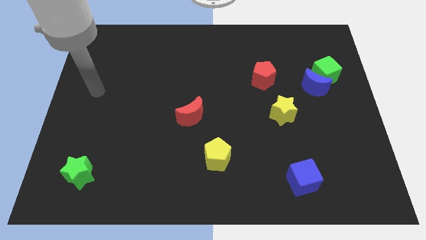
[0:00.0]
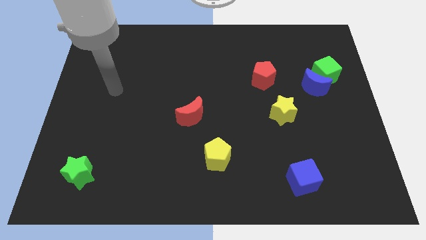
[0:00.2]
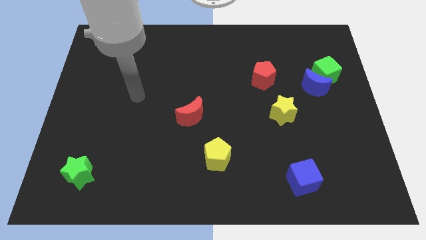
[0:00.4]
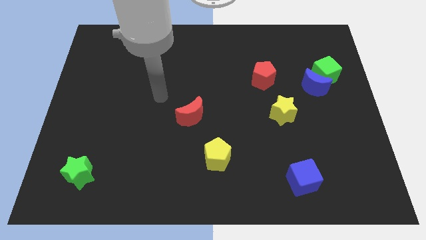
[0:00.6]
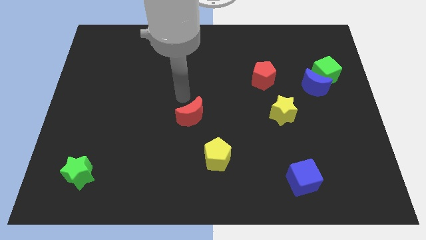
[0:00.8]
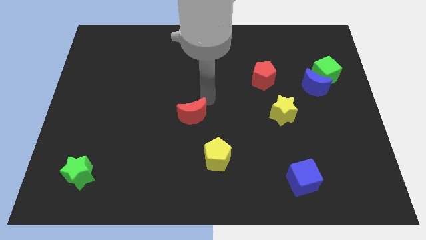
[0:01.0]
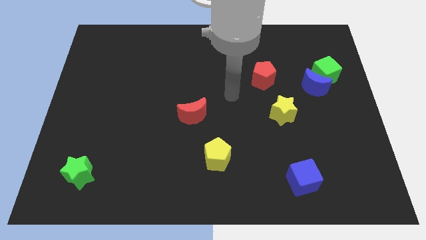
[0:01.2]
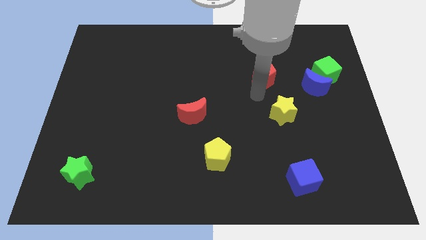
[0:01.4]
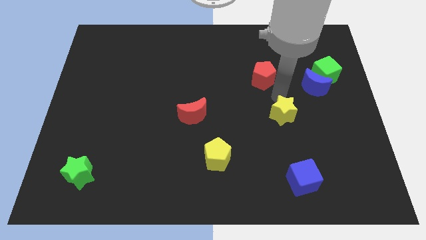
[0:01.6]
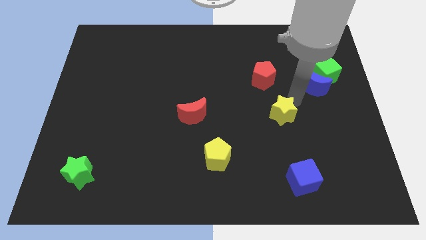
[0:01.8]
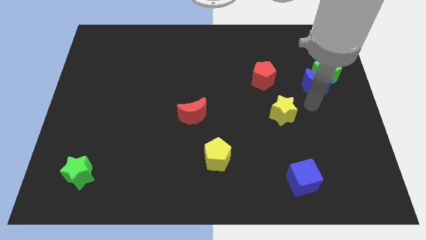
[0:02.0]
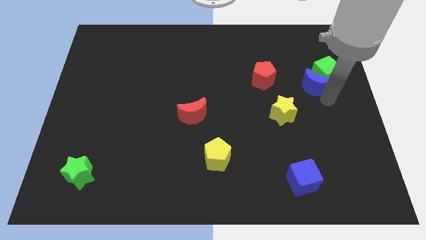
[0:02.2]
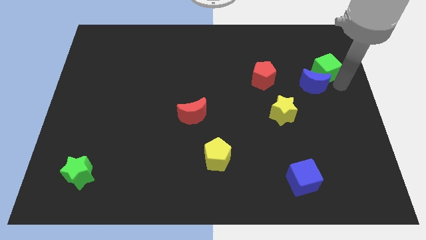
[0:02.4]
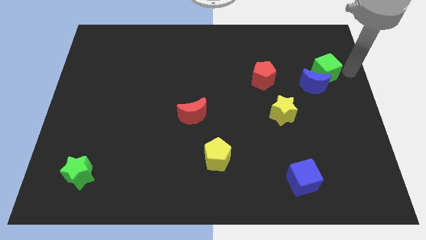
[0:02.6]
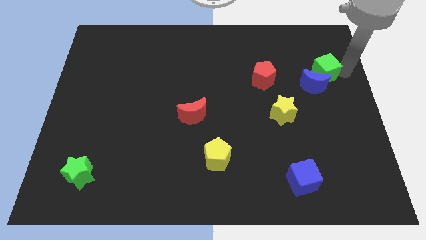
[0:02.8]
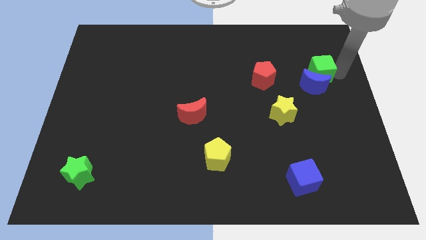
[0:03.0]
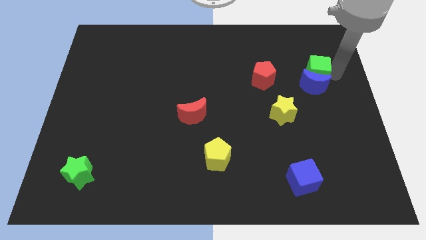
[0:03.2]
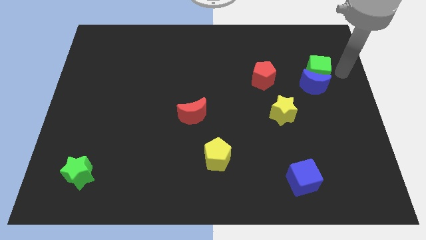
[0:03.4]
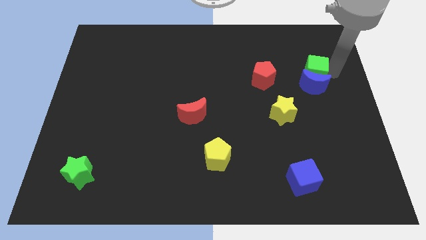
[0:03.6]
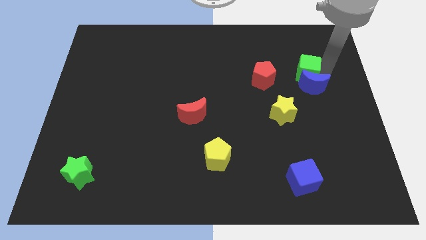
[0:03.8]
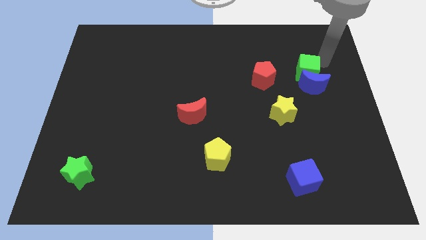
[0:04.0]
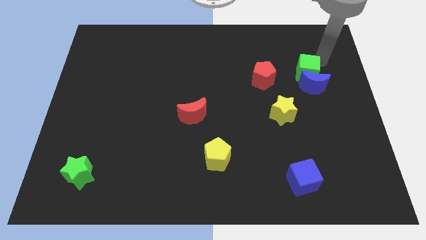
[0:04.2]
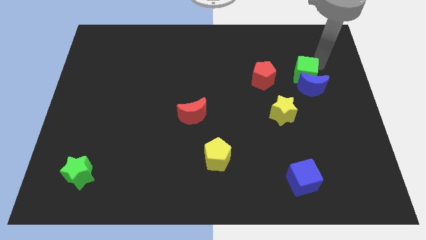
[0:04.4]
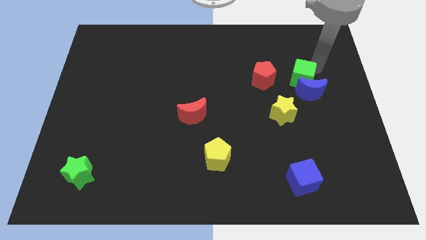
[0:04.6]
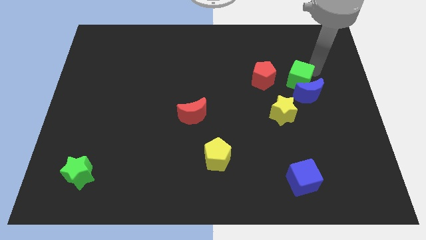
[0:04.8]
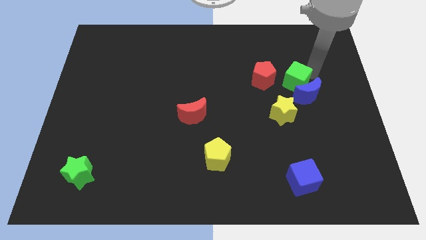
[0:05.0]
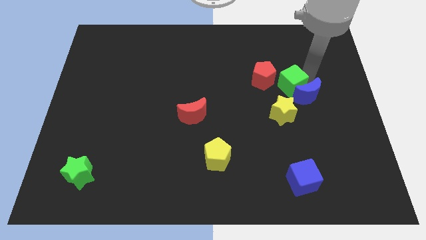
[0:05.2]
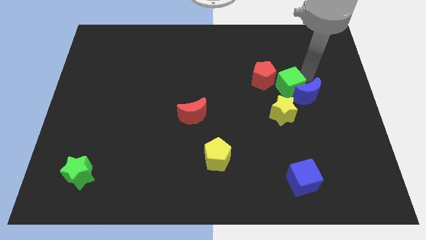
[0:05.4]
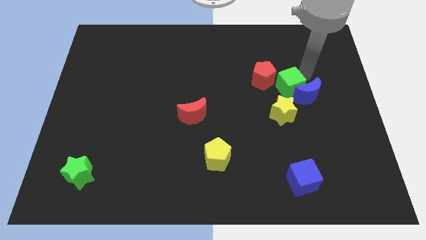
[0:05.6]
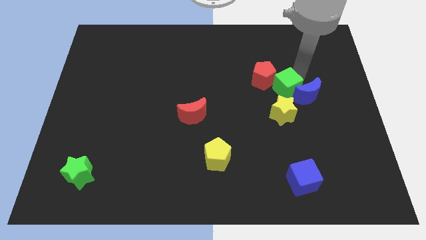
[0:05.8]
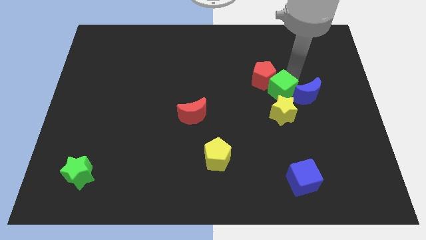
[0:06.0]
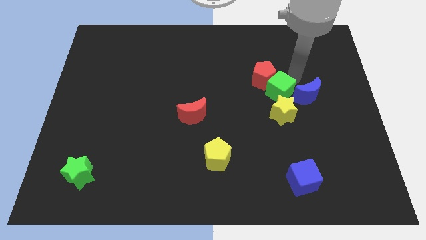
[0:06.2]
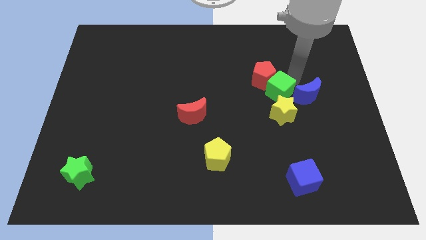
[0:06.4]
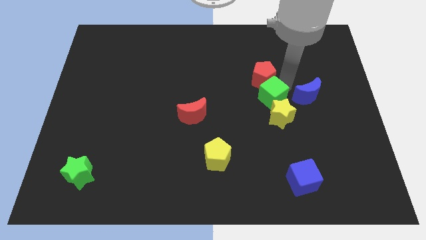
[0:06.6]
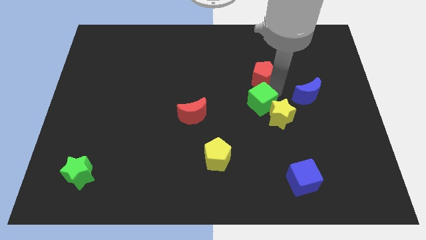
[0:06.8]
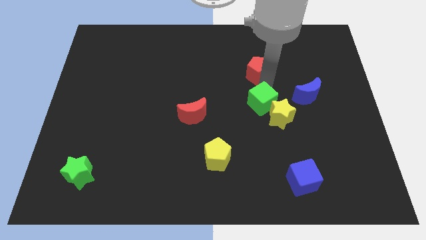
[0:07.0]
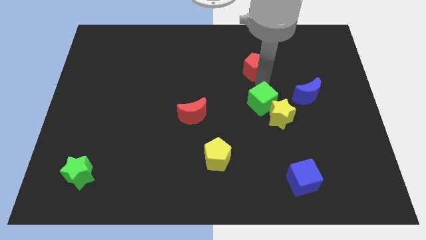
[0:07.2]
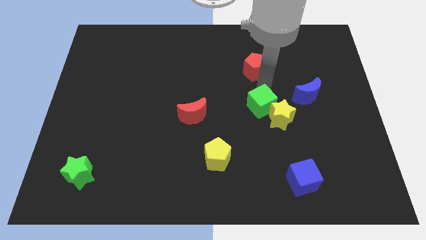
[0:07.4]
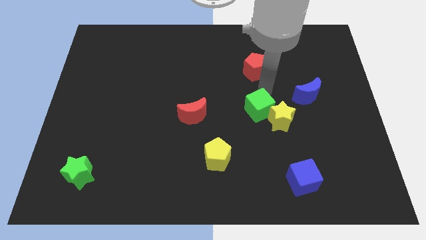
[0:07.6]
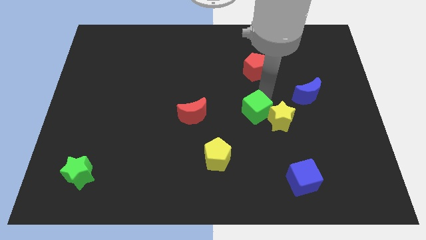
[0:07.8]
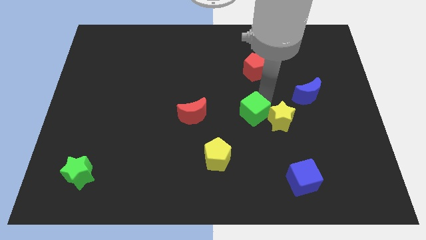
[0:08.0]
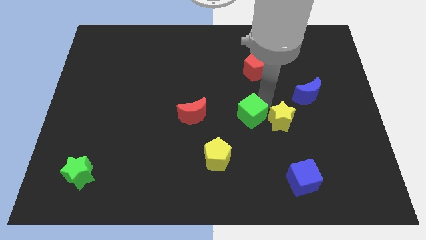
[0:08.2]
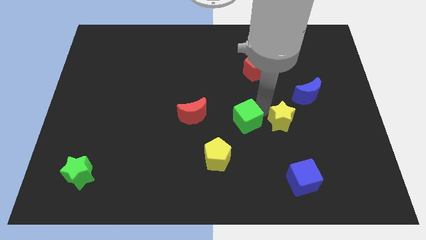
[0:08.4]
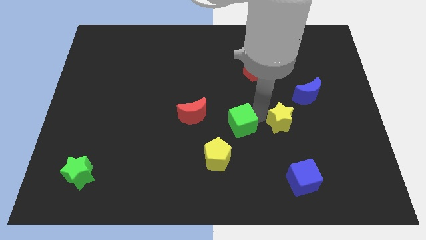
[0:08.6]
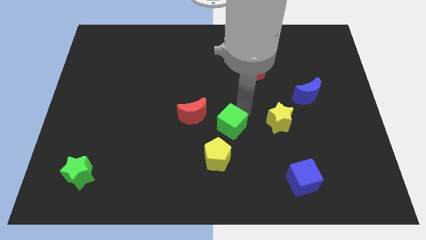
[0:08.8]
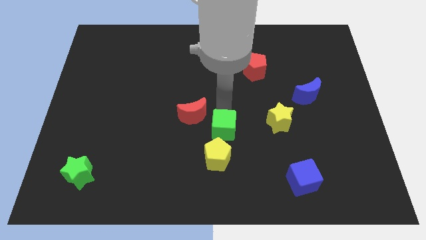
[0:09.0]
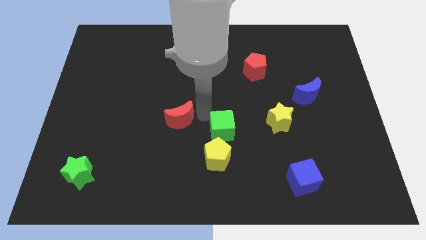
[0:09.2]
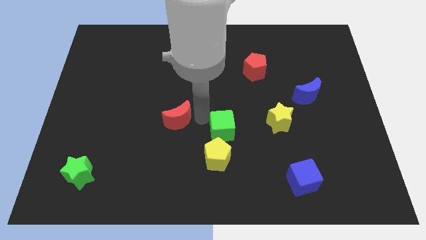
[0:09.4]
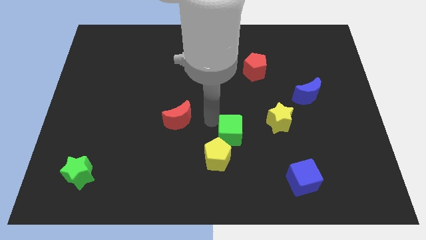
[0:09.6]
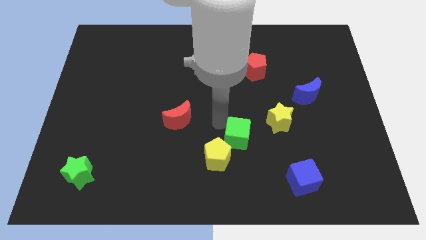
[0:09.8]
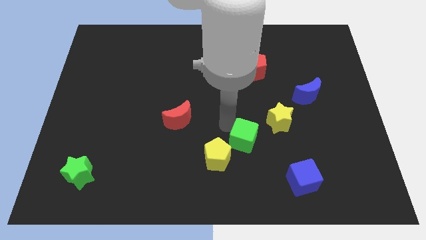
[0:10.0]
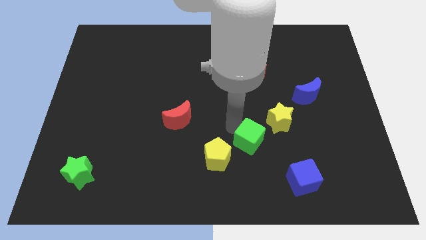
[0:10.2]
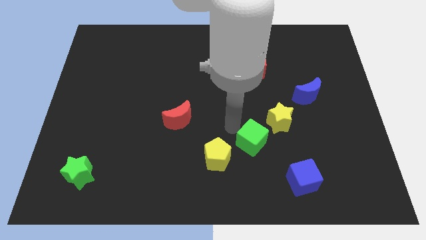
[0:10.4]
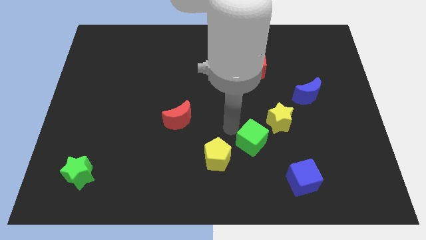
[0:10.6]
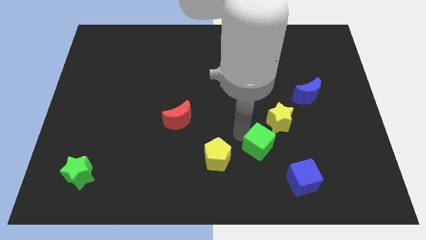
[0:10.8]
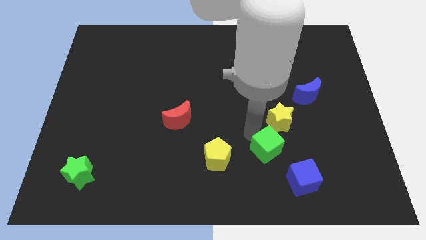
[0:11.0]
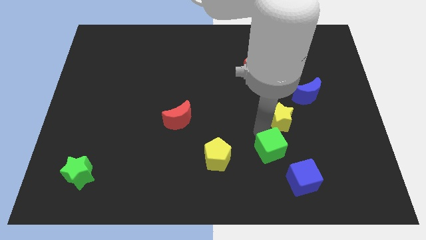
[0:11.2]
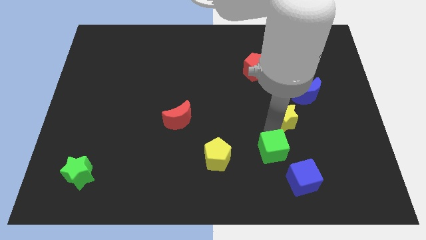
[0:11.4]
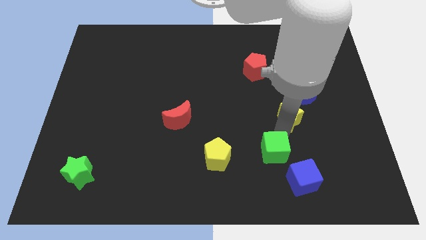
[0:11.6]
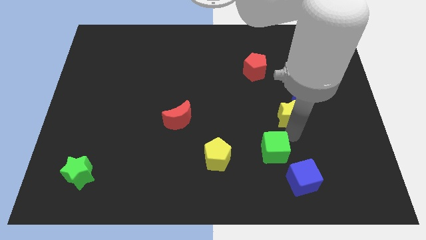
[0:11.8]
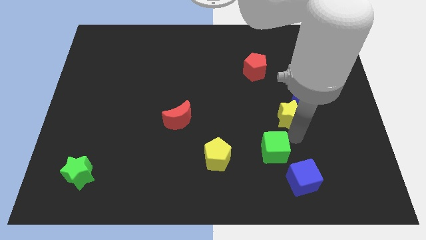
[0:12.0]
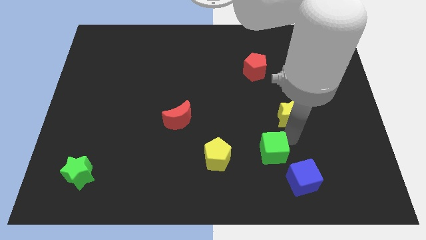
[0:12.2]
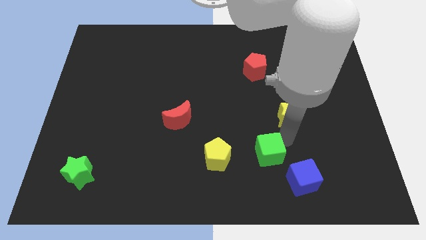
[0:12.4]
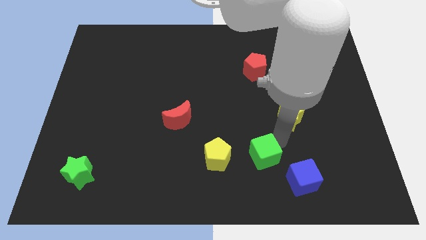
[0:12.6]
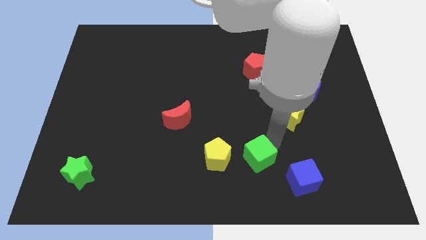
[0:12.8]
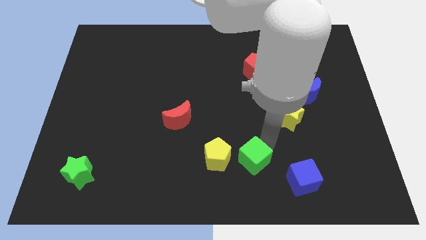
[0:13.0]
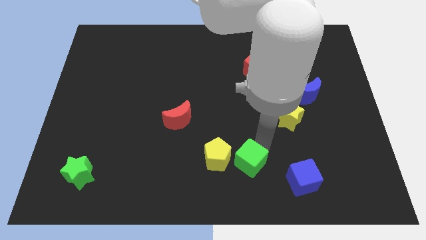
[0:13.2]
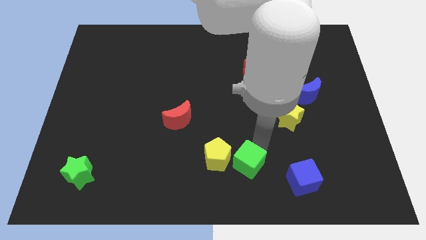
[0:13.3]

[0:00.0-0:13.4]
push the green cube to the bottom

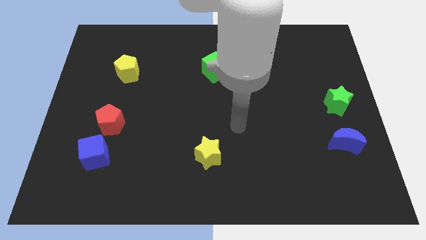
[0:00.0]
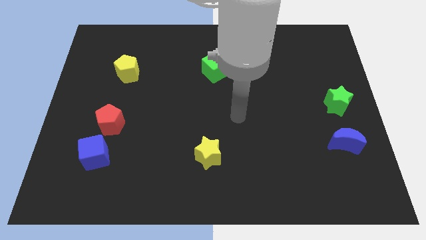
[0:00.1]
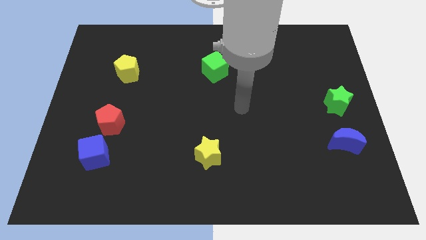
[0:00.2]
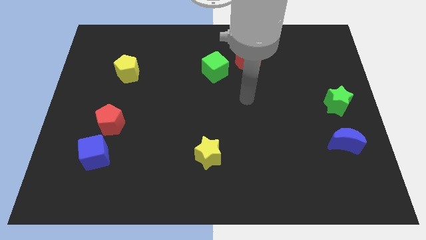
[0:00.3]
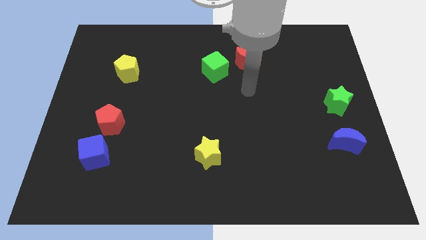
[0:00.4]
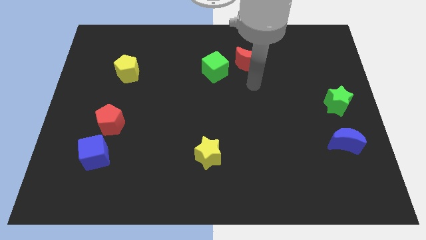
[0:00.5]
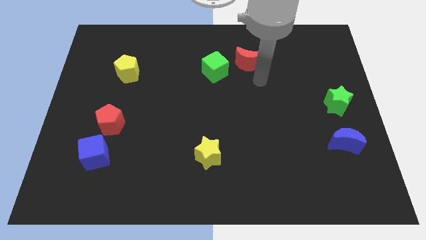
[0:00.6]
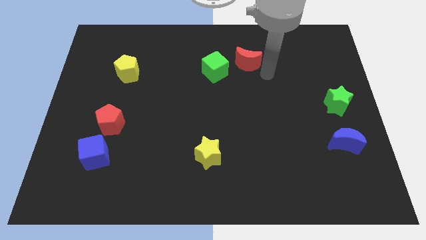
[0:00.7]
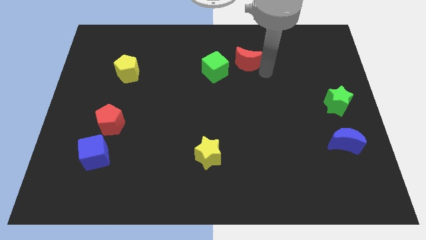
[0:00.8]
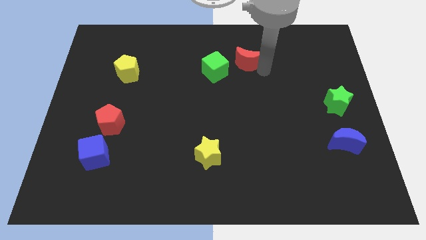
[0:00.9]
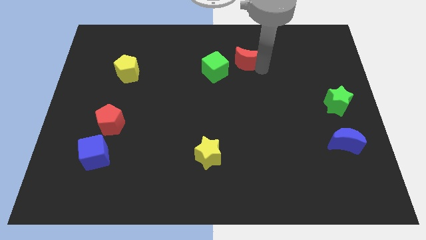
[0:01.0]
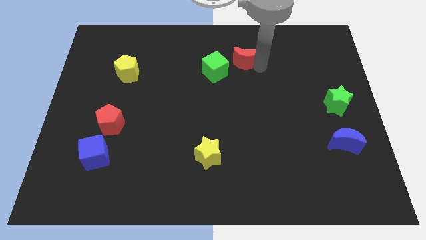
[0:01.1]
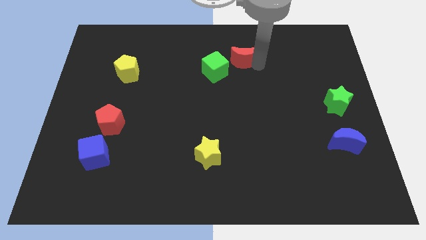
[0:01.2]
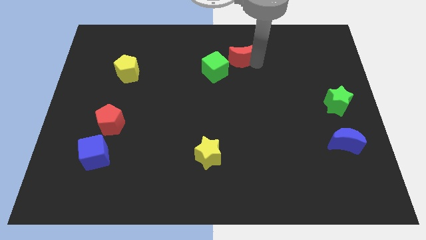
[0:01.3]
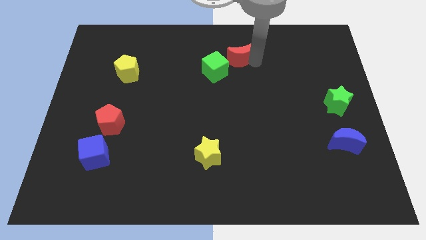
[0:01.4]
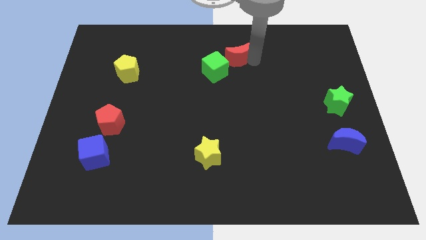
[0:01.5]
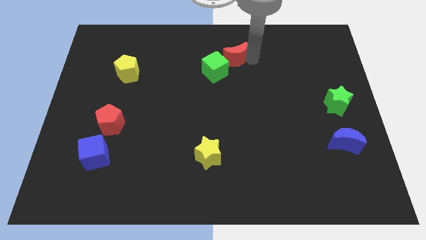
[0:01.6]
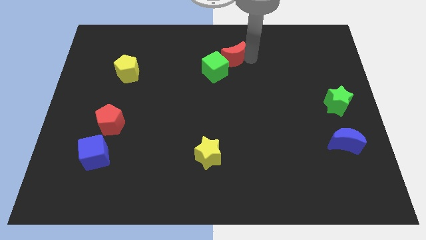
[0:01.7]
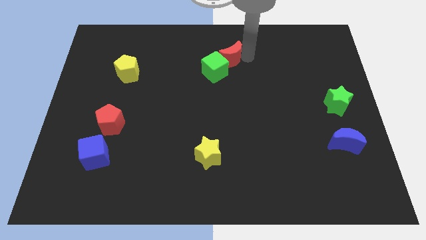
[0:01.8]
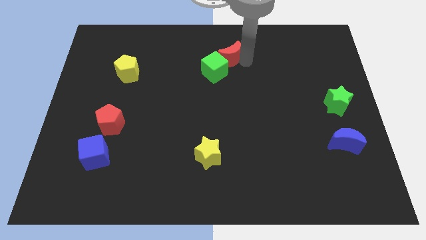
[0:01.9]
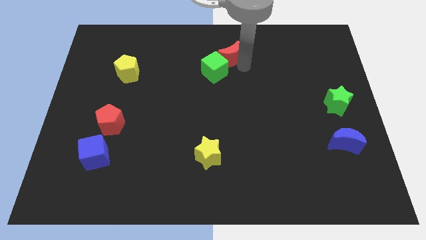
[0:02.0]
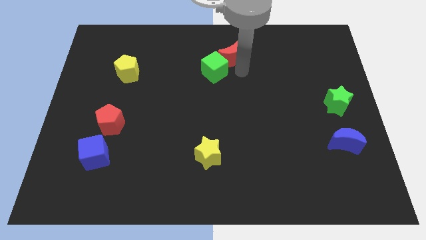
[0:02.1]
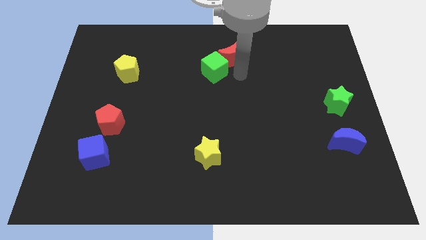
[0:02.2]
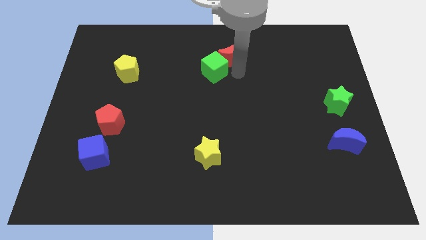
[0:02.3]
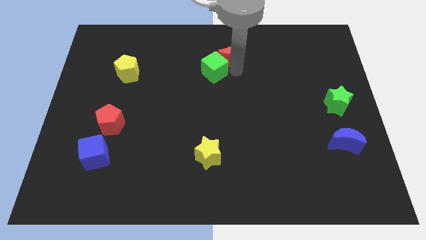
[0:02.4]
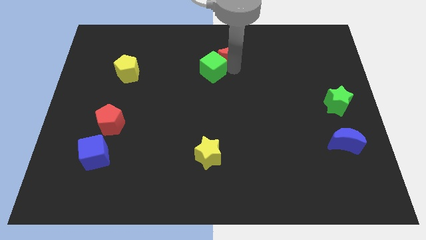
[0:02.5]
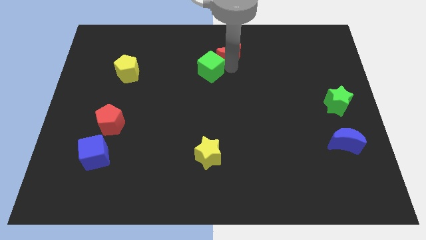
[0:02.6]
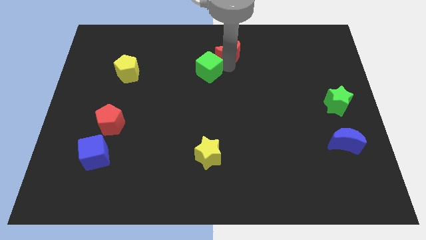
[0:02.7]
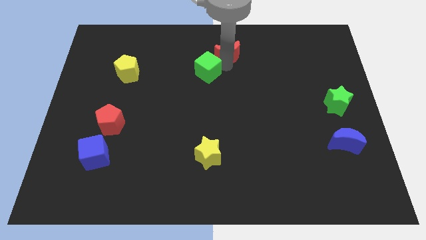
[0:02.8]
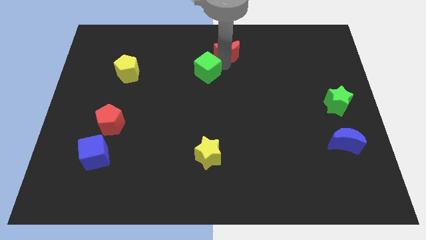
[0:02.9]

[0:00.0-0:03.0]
push the red moon to the top
